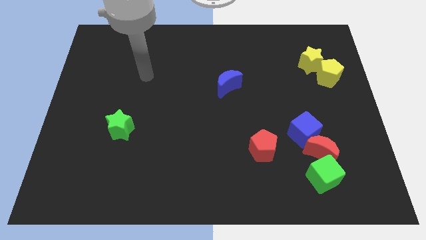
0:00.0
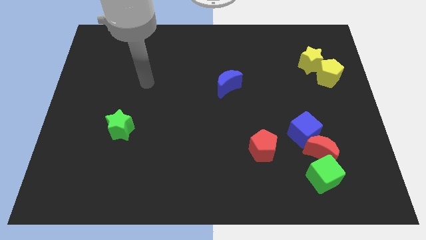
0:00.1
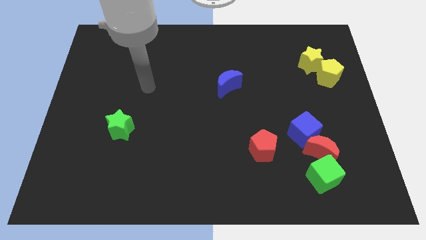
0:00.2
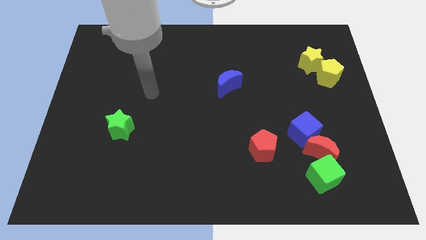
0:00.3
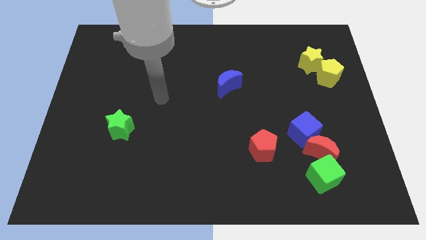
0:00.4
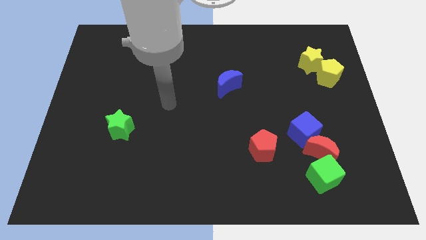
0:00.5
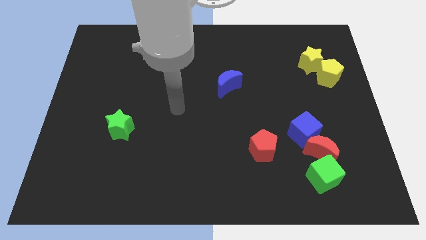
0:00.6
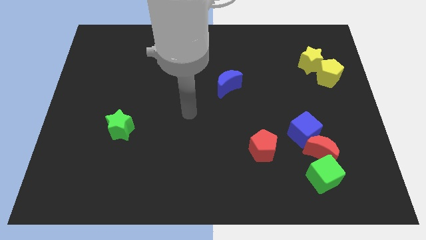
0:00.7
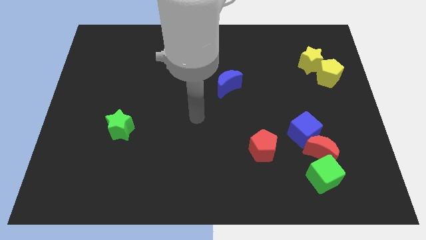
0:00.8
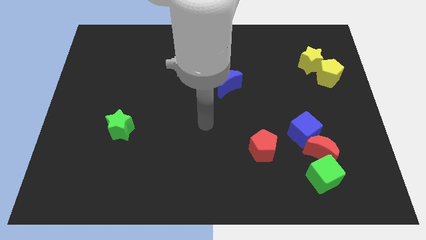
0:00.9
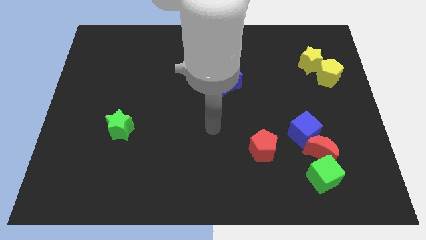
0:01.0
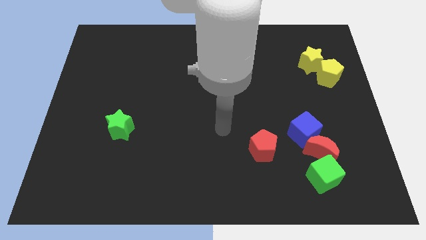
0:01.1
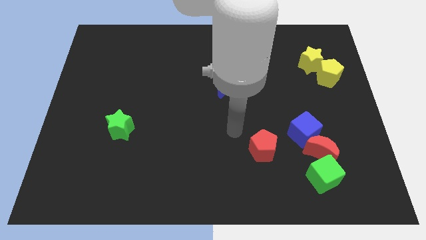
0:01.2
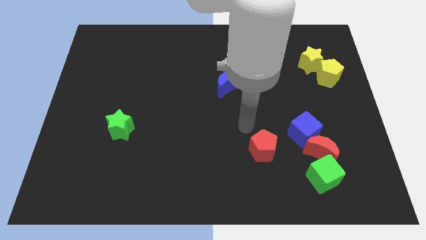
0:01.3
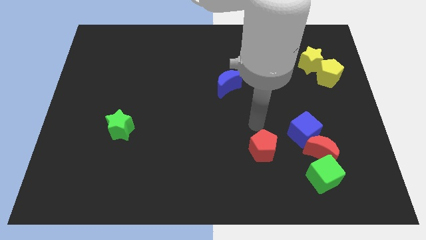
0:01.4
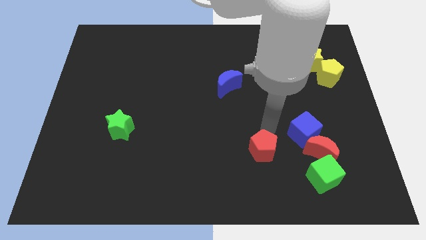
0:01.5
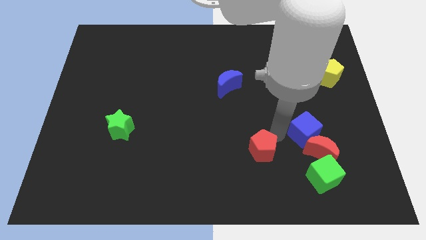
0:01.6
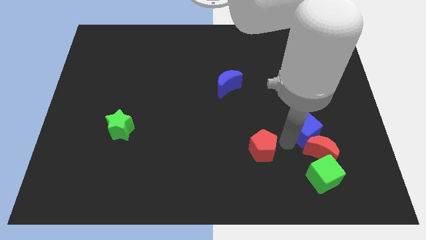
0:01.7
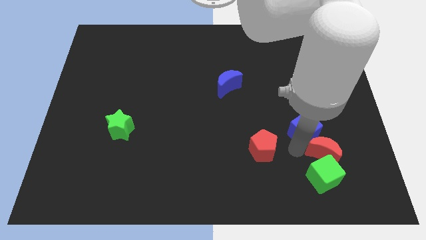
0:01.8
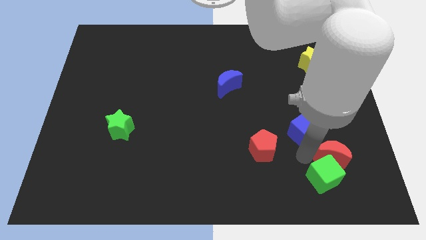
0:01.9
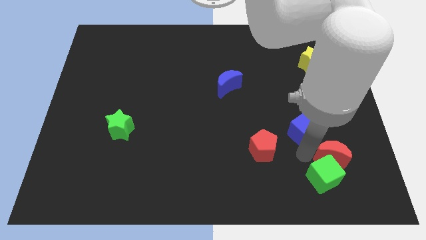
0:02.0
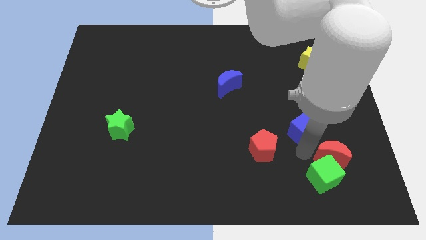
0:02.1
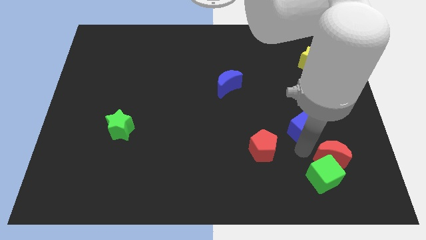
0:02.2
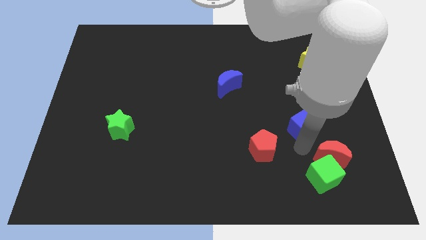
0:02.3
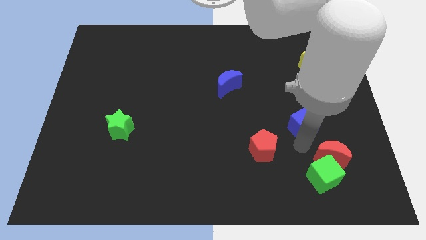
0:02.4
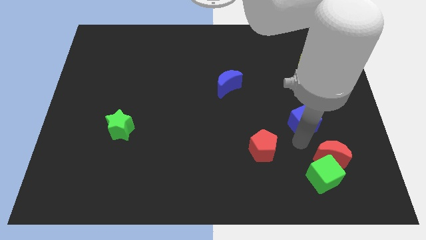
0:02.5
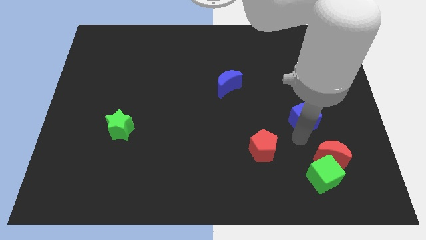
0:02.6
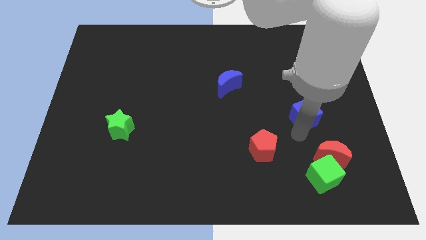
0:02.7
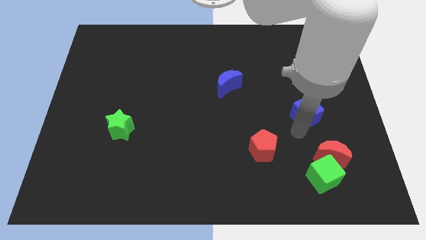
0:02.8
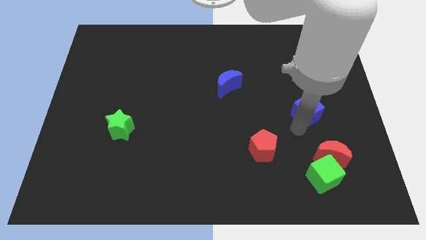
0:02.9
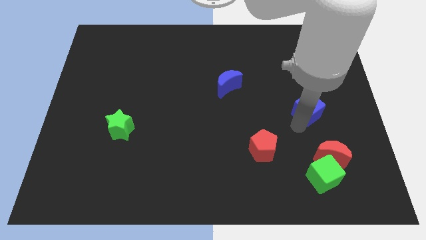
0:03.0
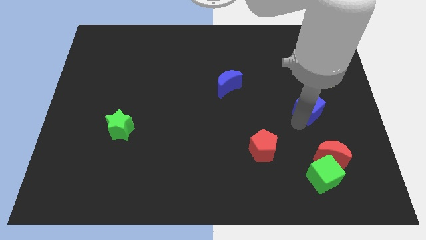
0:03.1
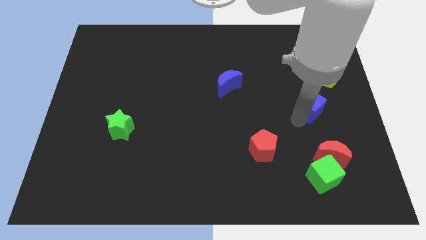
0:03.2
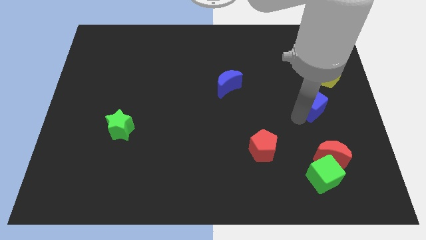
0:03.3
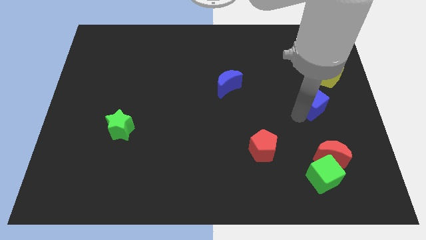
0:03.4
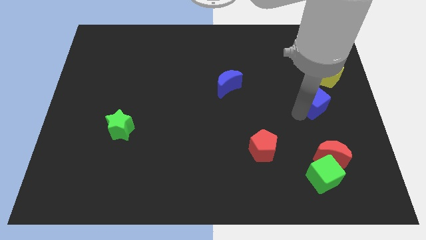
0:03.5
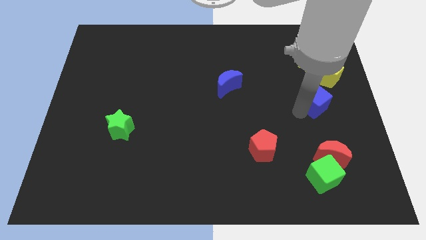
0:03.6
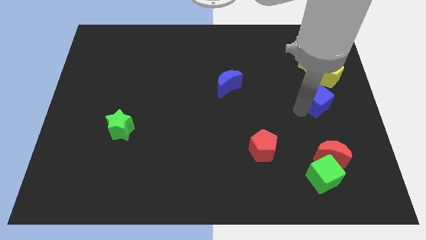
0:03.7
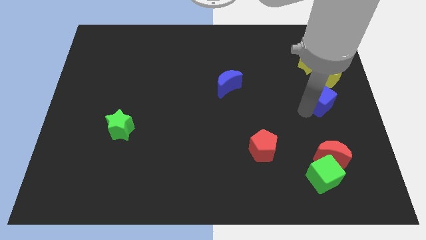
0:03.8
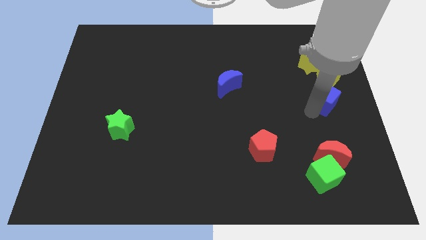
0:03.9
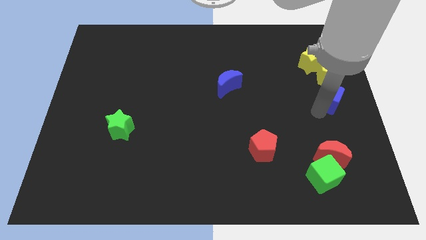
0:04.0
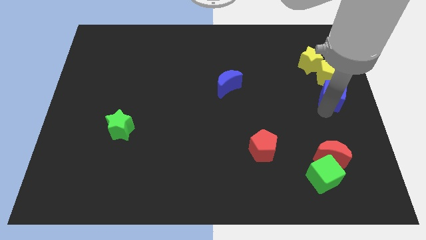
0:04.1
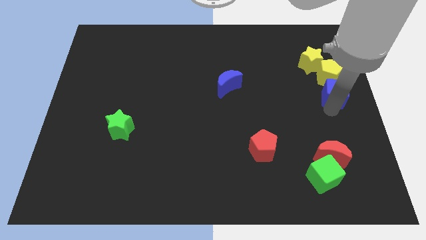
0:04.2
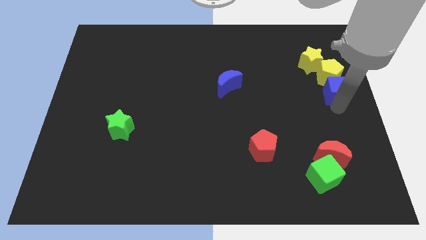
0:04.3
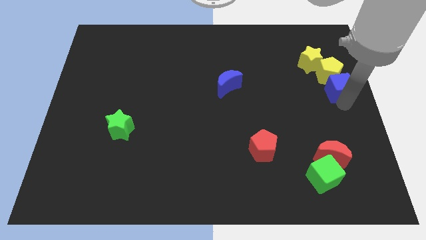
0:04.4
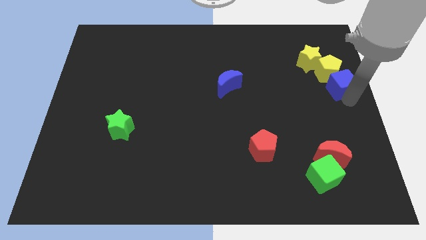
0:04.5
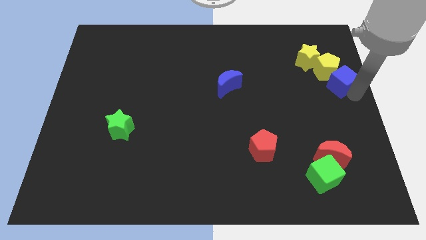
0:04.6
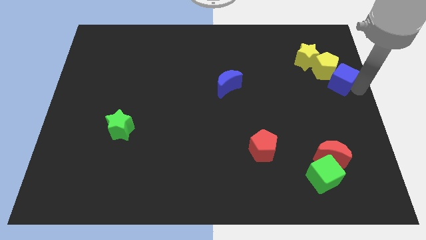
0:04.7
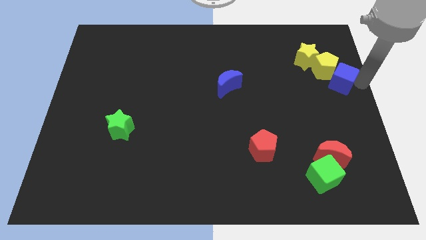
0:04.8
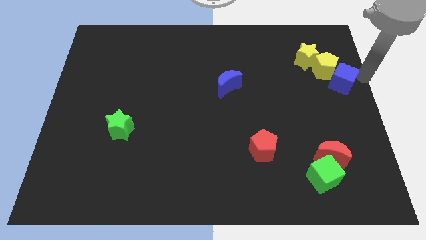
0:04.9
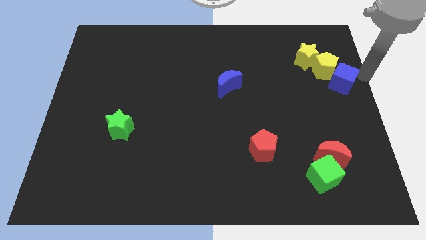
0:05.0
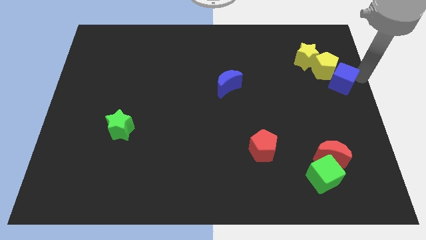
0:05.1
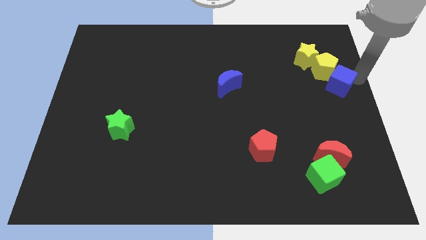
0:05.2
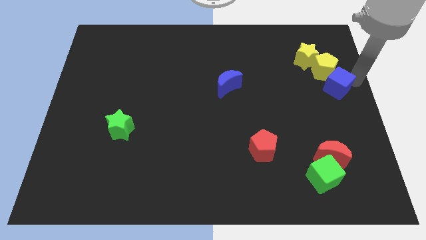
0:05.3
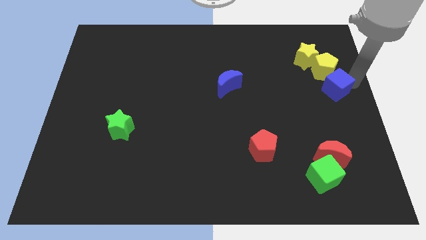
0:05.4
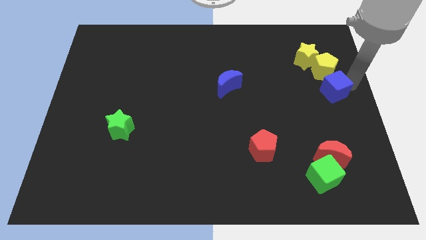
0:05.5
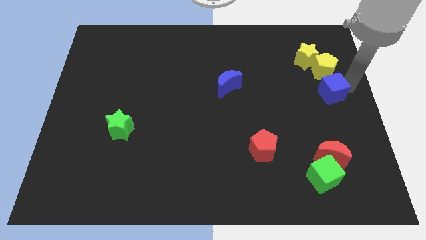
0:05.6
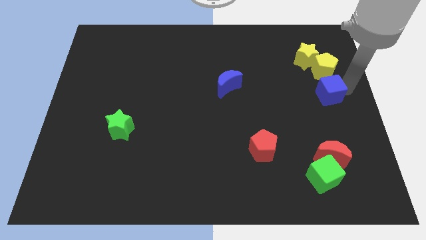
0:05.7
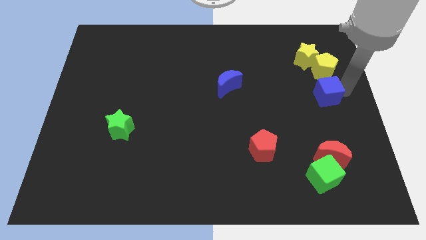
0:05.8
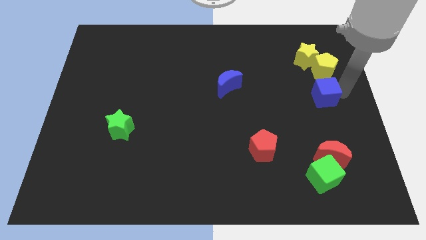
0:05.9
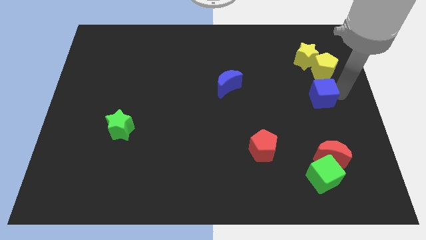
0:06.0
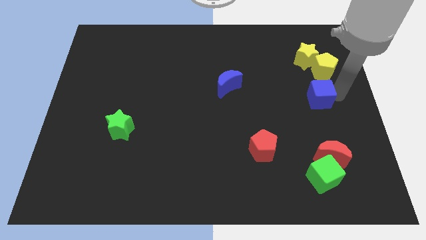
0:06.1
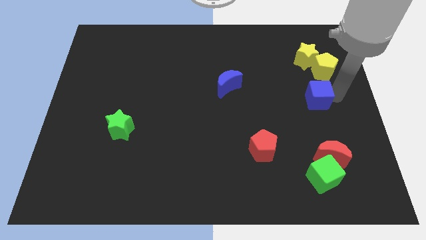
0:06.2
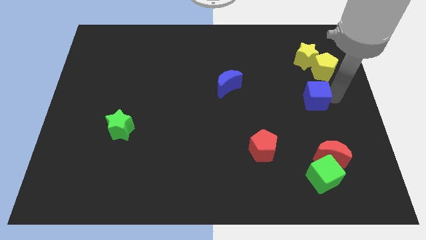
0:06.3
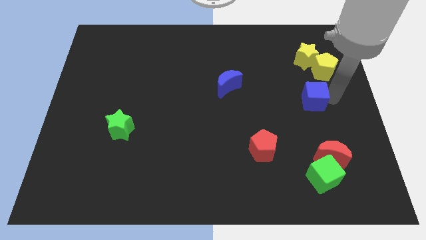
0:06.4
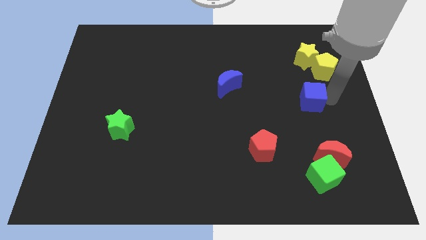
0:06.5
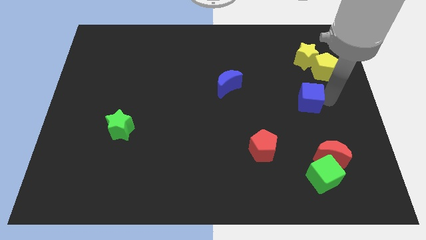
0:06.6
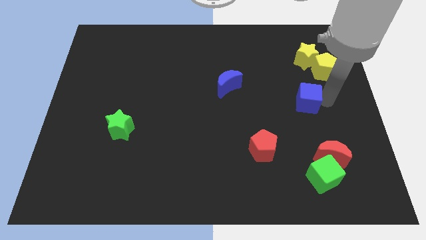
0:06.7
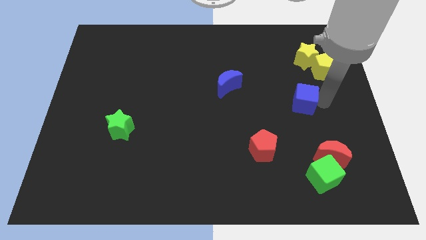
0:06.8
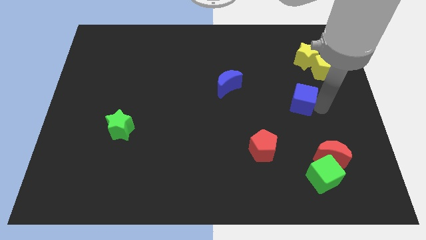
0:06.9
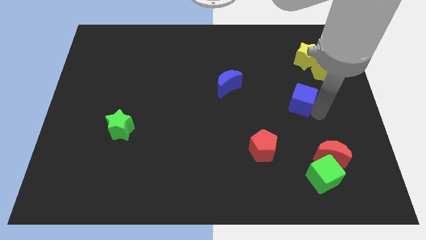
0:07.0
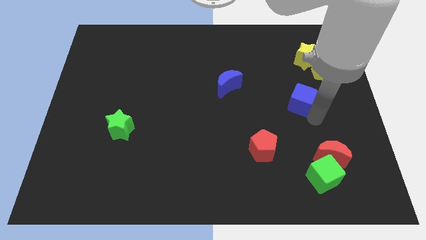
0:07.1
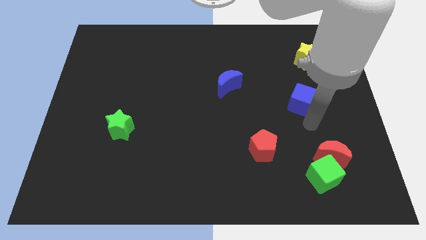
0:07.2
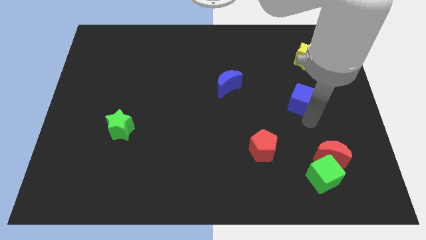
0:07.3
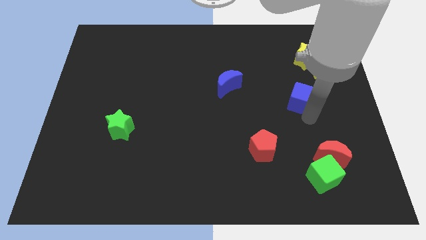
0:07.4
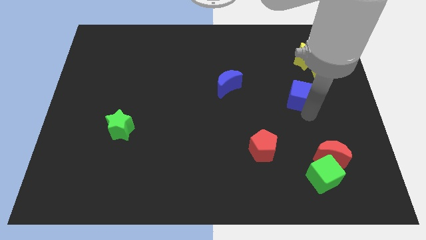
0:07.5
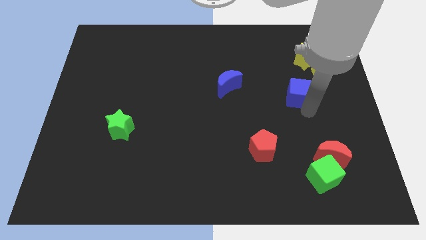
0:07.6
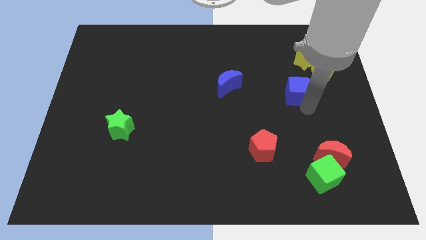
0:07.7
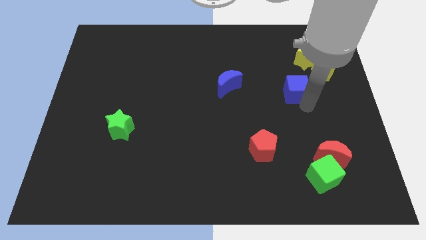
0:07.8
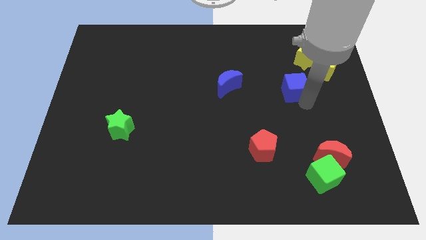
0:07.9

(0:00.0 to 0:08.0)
put the blue cube diagonally down and to the left of the yellow star
